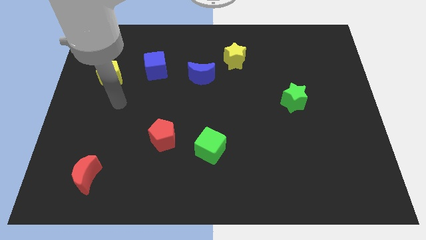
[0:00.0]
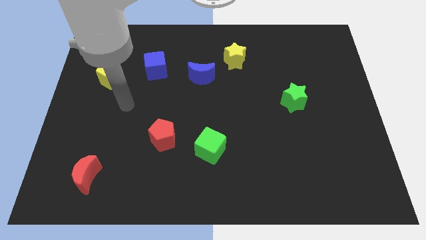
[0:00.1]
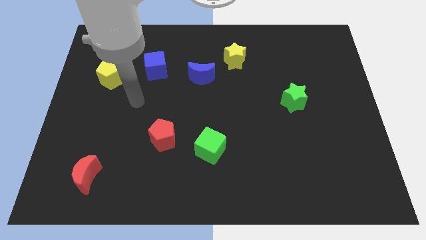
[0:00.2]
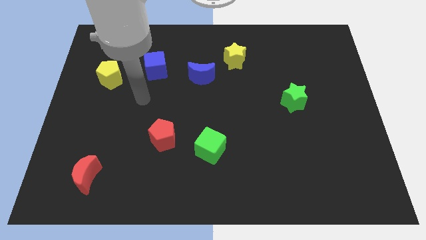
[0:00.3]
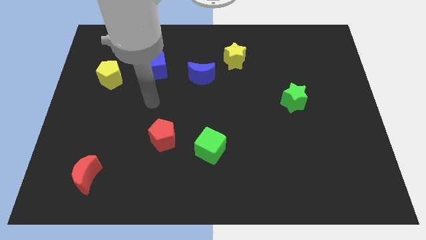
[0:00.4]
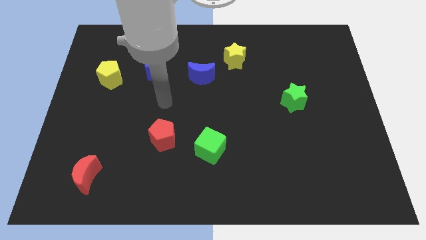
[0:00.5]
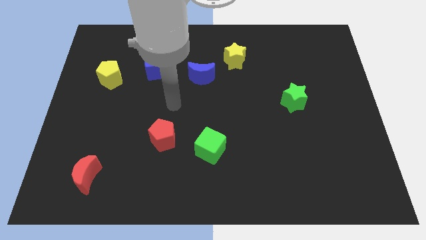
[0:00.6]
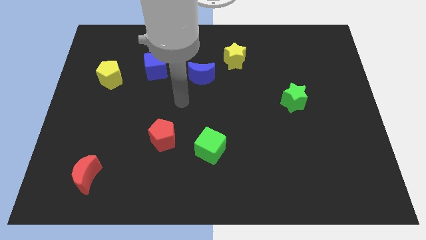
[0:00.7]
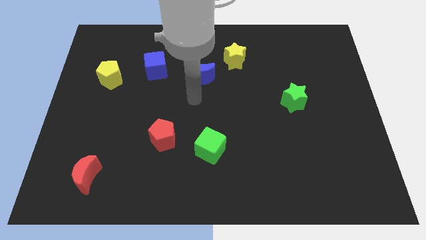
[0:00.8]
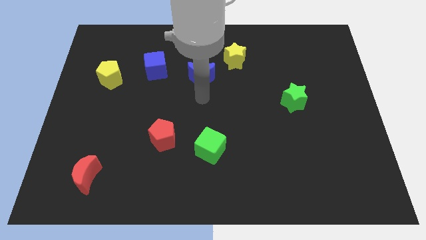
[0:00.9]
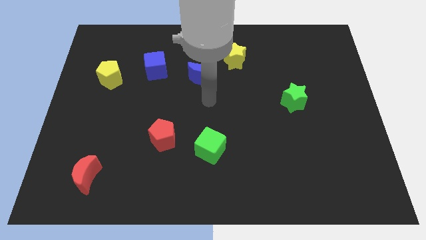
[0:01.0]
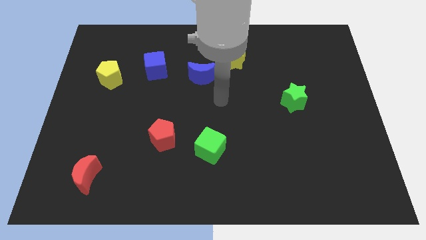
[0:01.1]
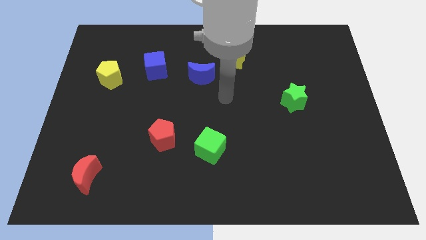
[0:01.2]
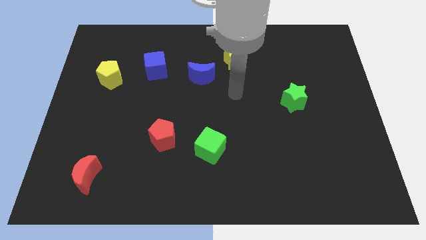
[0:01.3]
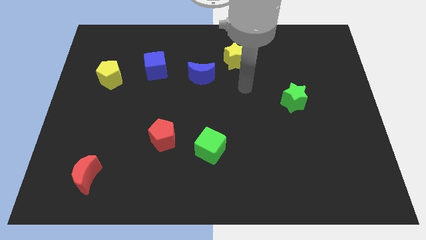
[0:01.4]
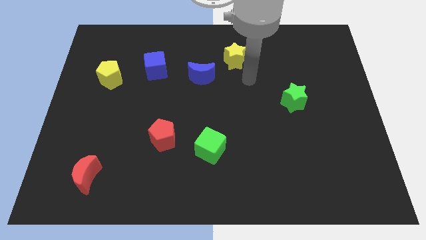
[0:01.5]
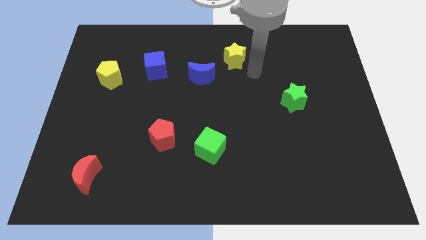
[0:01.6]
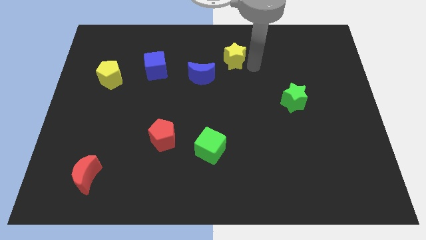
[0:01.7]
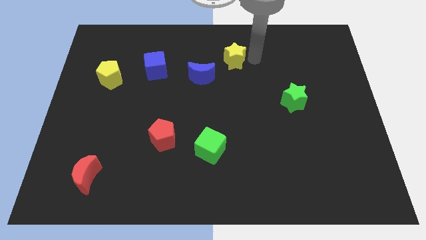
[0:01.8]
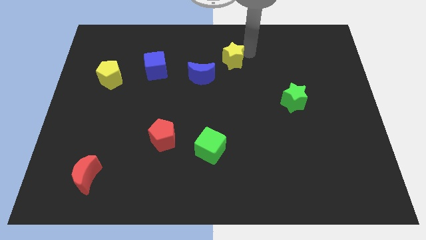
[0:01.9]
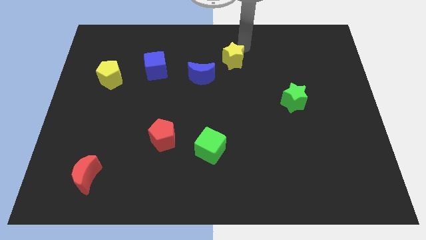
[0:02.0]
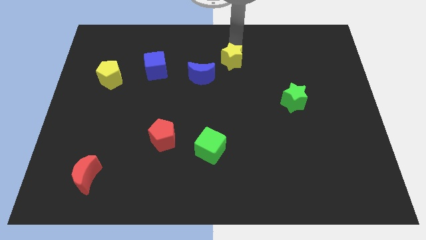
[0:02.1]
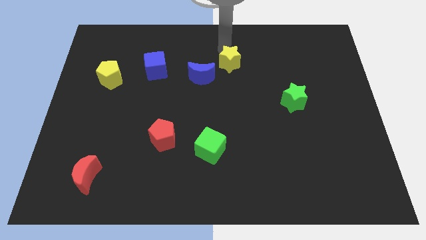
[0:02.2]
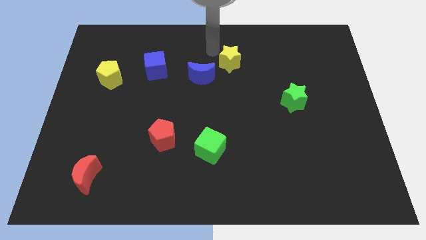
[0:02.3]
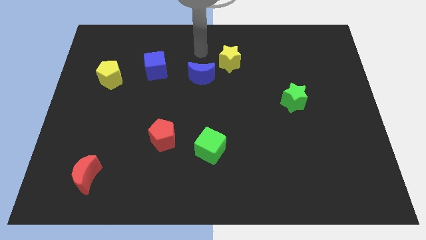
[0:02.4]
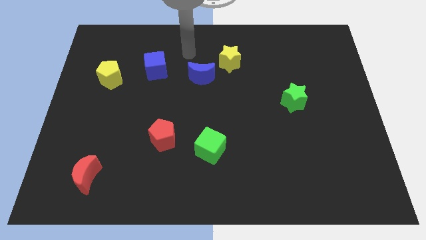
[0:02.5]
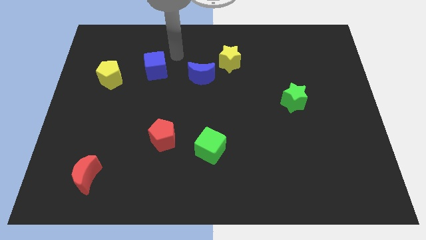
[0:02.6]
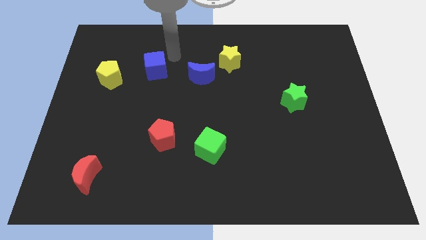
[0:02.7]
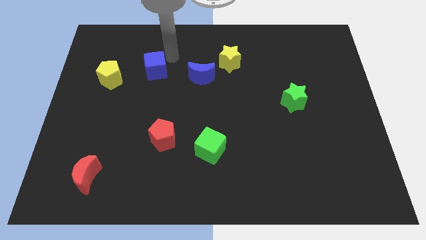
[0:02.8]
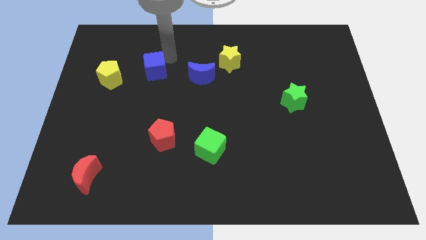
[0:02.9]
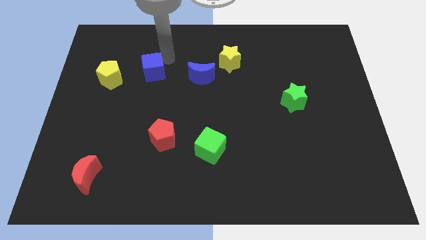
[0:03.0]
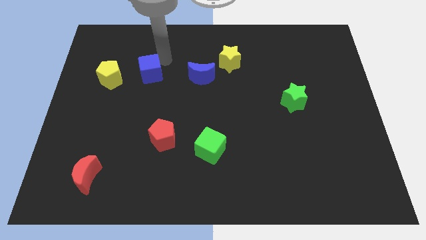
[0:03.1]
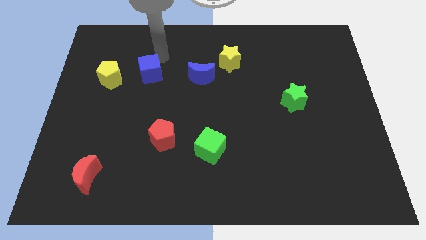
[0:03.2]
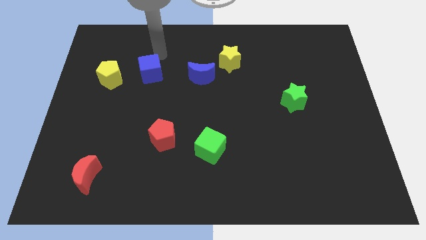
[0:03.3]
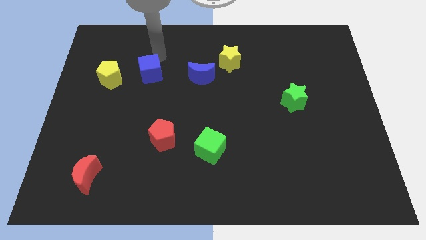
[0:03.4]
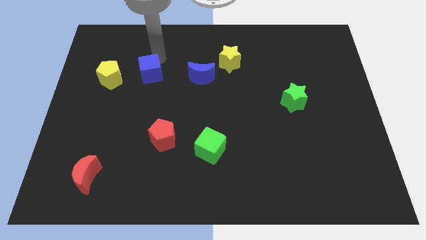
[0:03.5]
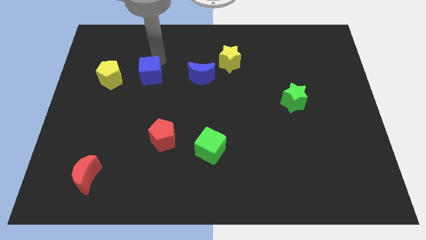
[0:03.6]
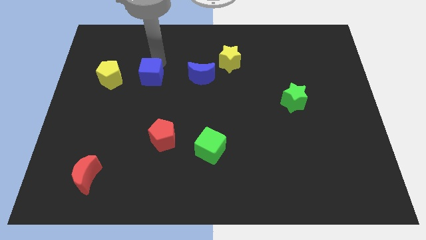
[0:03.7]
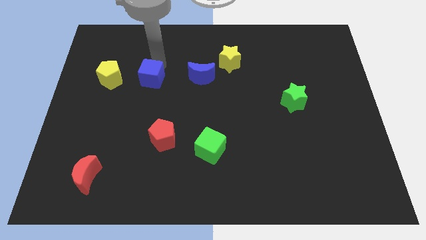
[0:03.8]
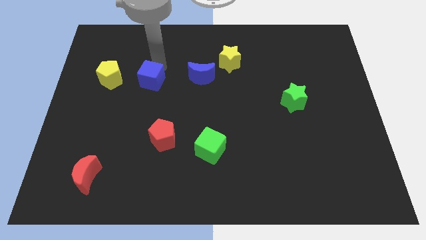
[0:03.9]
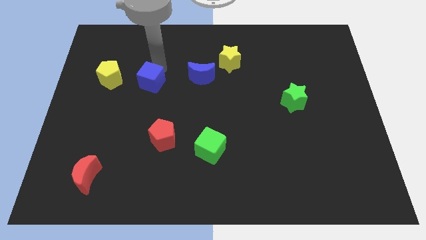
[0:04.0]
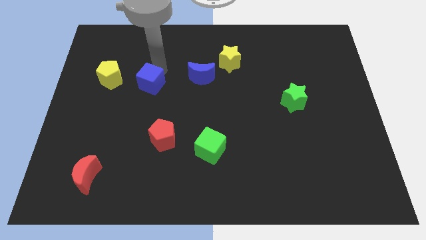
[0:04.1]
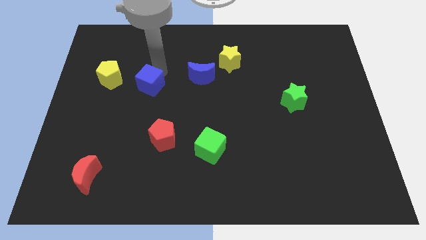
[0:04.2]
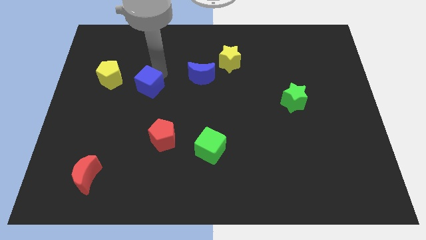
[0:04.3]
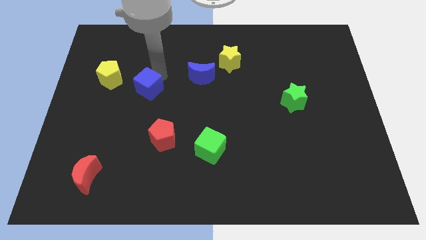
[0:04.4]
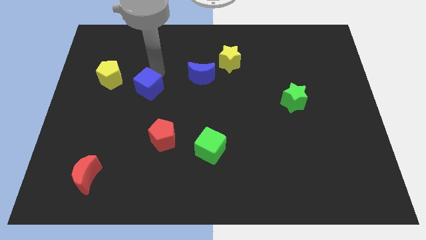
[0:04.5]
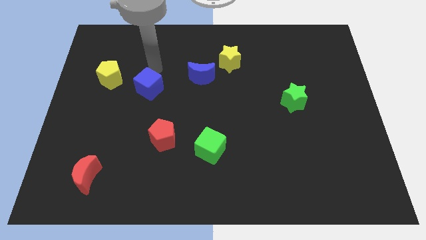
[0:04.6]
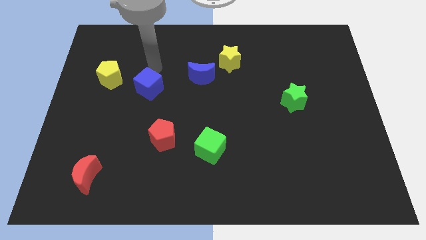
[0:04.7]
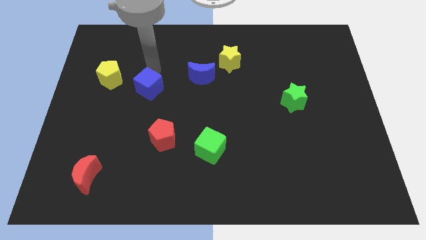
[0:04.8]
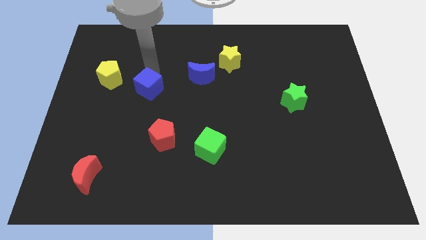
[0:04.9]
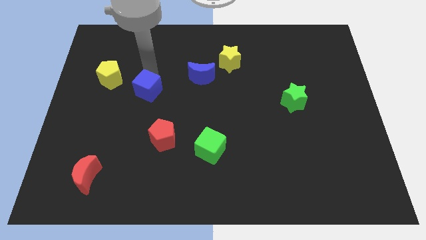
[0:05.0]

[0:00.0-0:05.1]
move the blue cube a bit downwards

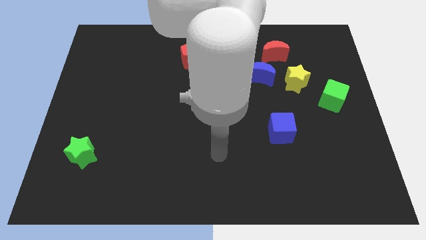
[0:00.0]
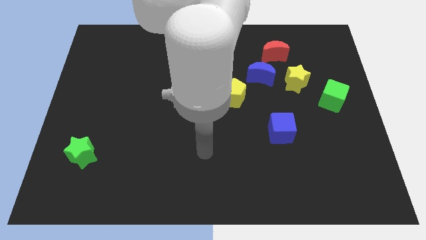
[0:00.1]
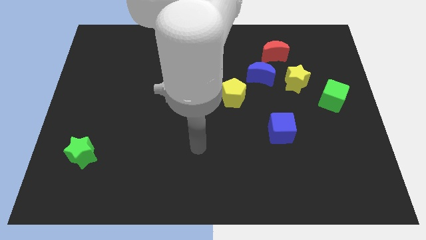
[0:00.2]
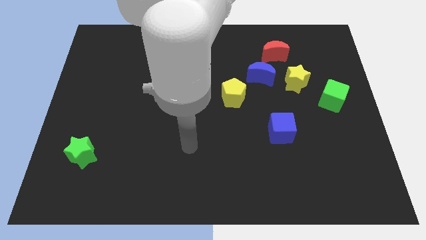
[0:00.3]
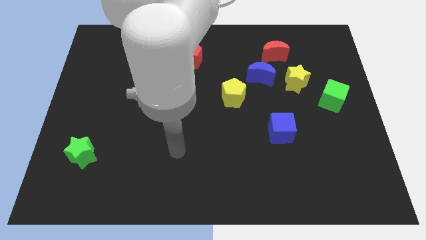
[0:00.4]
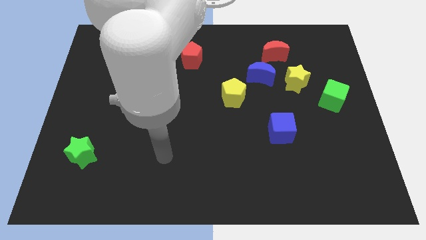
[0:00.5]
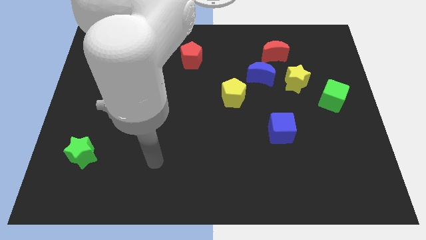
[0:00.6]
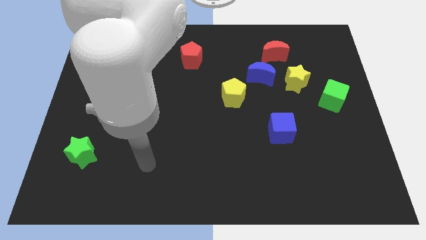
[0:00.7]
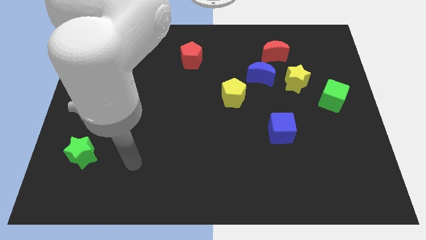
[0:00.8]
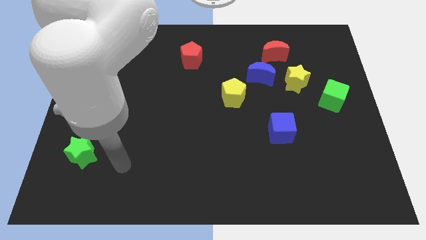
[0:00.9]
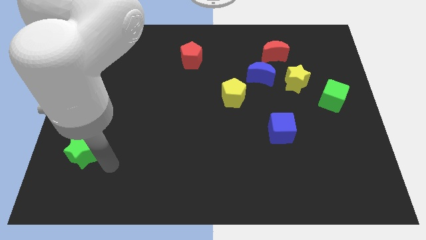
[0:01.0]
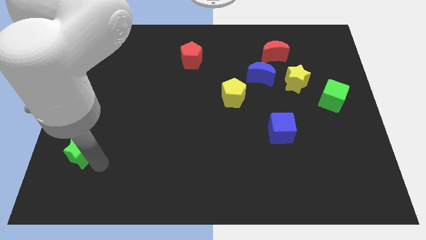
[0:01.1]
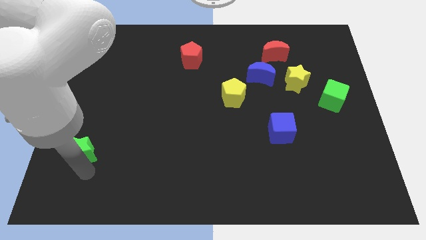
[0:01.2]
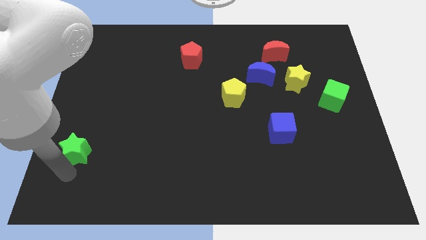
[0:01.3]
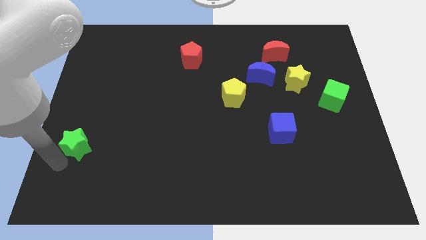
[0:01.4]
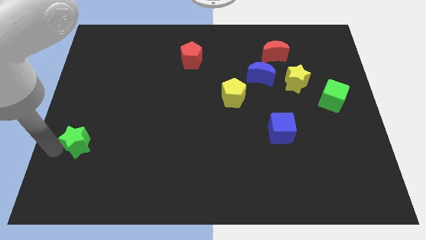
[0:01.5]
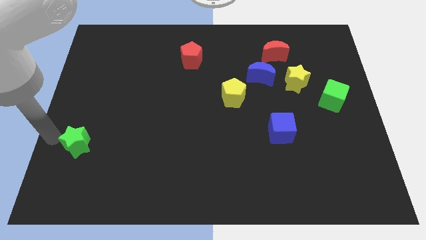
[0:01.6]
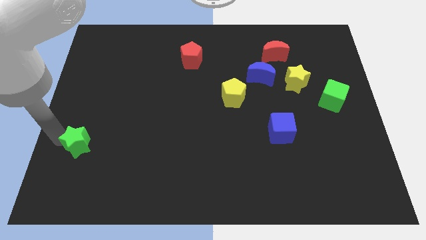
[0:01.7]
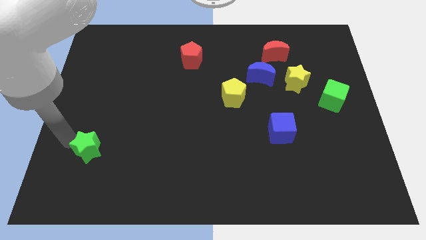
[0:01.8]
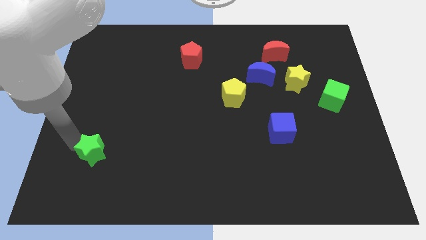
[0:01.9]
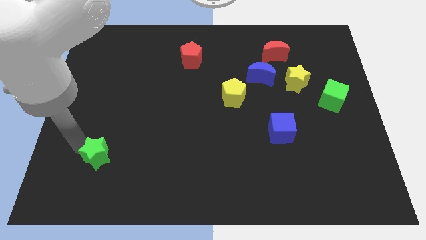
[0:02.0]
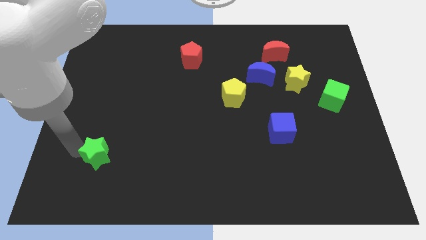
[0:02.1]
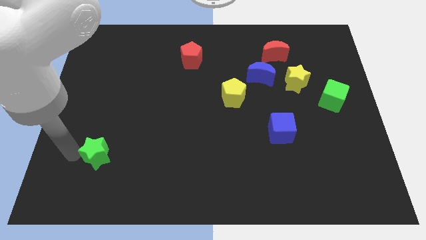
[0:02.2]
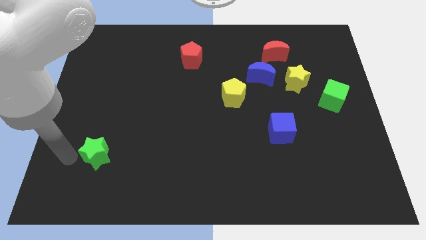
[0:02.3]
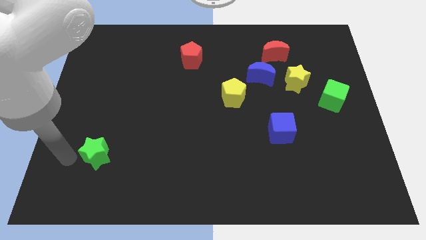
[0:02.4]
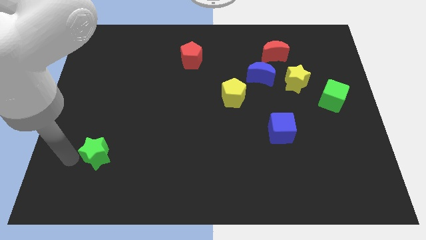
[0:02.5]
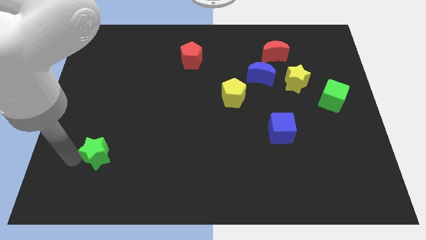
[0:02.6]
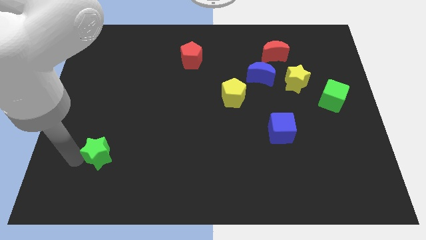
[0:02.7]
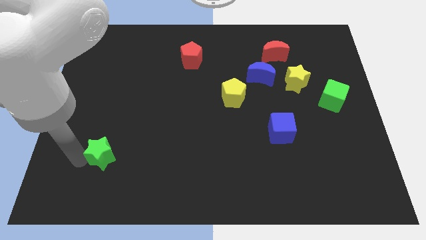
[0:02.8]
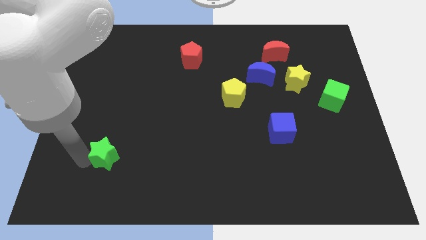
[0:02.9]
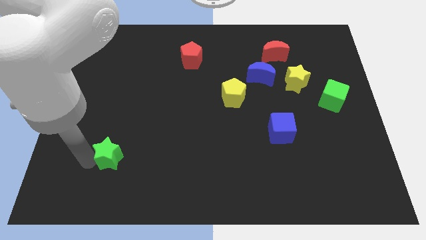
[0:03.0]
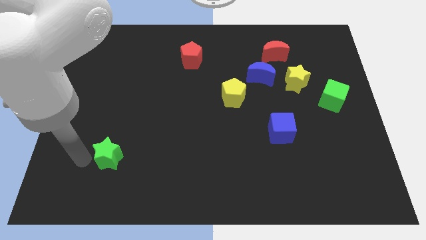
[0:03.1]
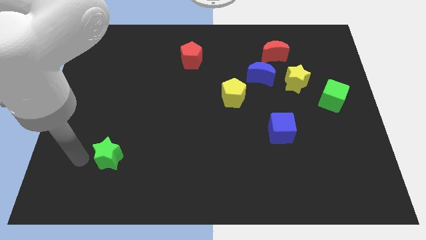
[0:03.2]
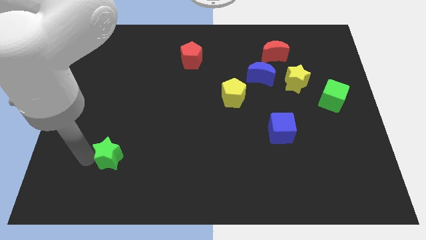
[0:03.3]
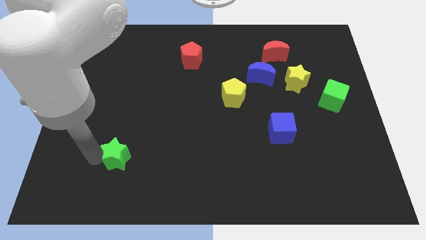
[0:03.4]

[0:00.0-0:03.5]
move the green star a little right
